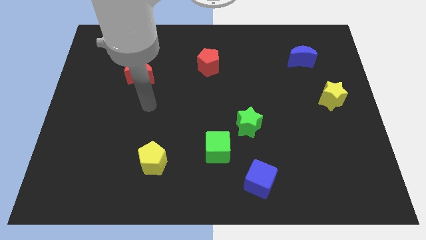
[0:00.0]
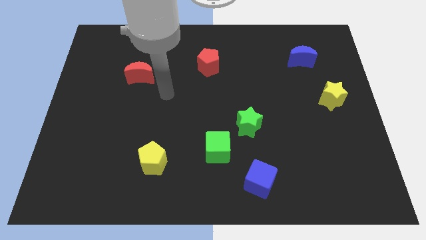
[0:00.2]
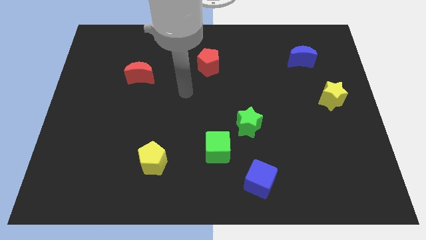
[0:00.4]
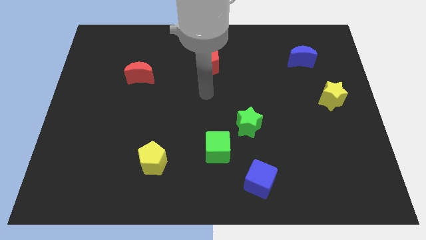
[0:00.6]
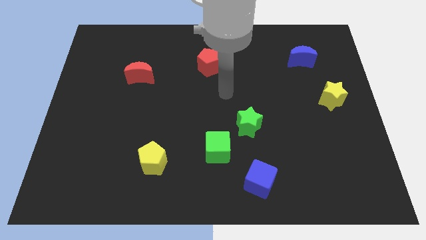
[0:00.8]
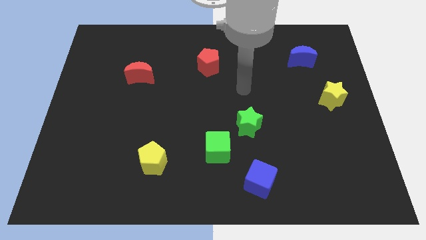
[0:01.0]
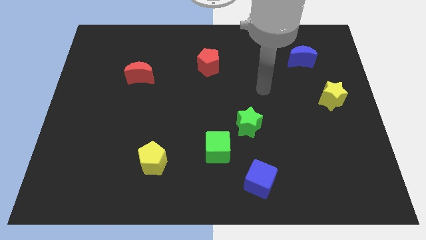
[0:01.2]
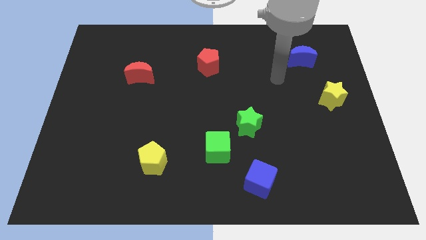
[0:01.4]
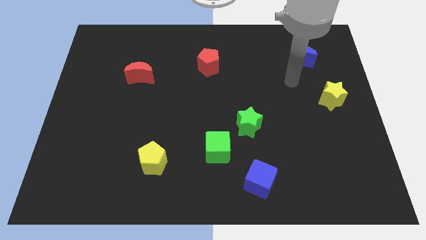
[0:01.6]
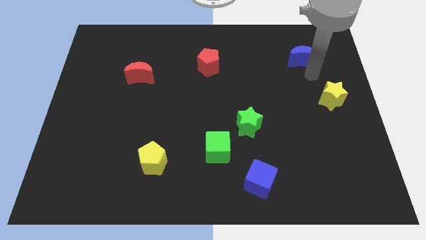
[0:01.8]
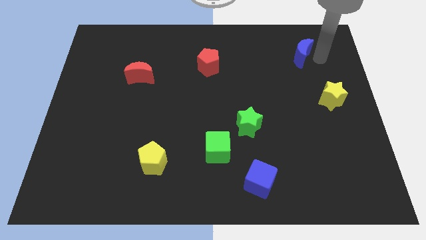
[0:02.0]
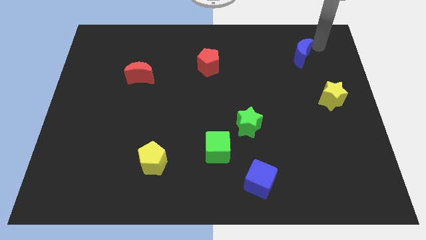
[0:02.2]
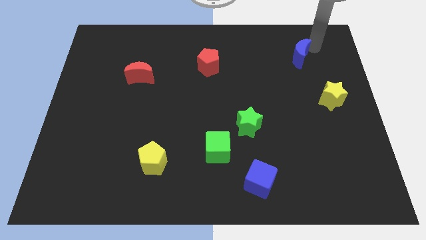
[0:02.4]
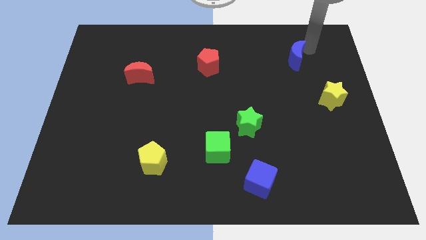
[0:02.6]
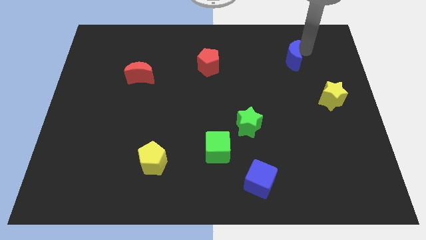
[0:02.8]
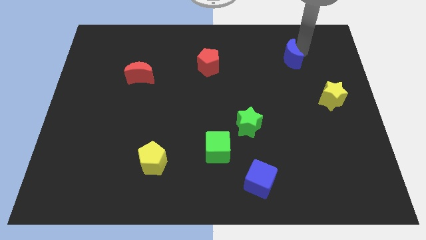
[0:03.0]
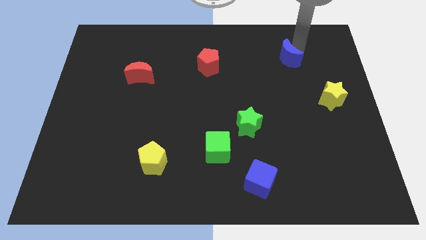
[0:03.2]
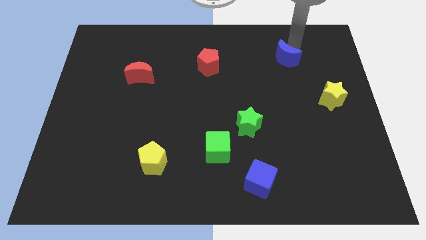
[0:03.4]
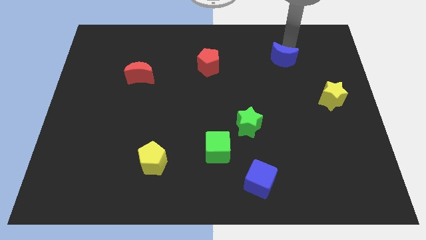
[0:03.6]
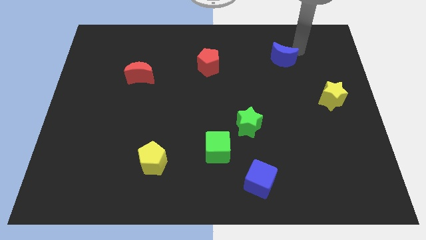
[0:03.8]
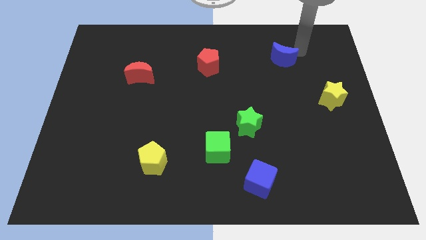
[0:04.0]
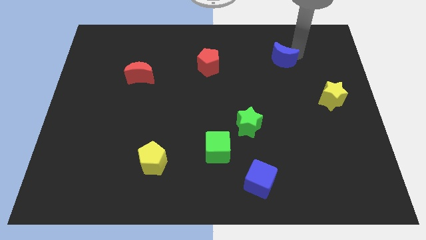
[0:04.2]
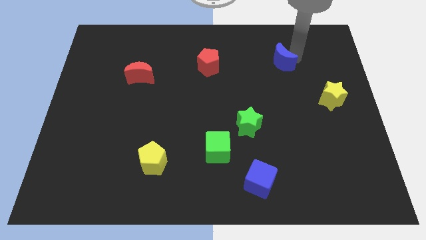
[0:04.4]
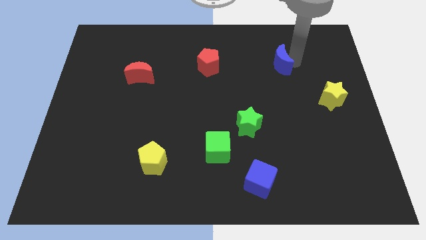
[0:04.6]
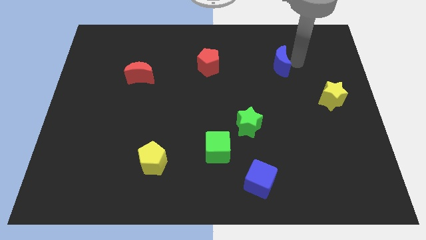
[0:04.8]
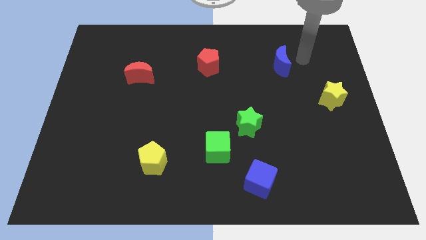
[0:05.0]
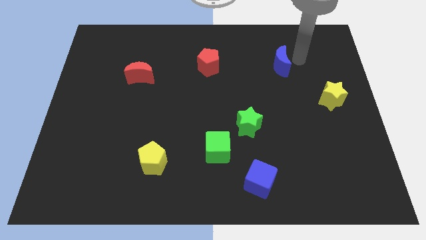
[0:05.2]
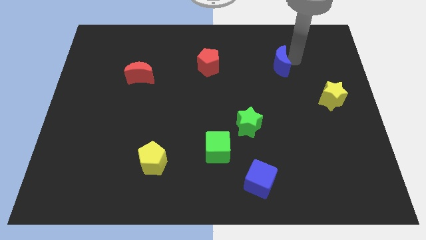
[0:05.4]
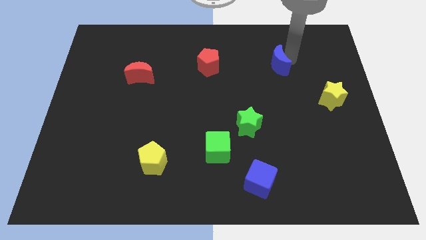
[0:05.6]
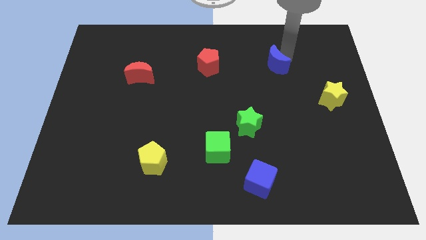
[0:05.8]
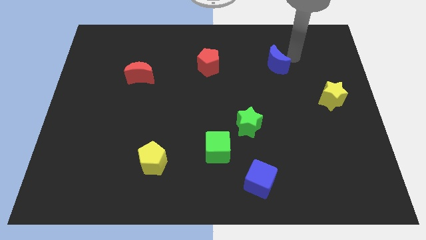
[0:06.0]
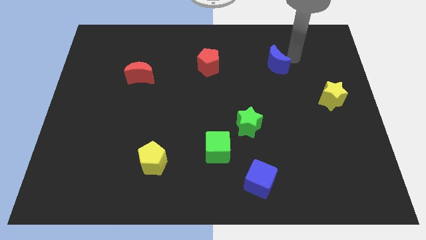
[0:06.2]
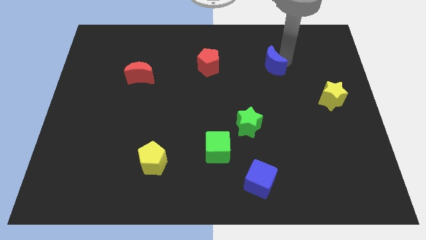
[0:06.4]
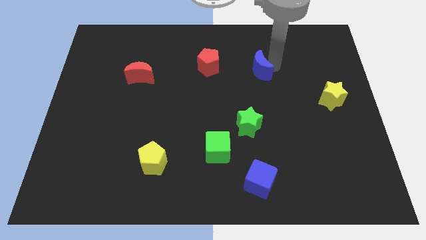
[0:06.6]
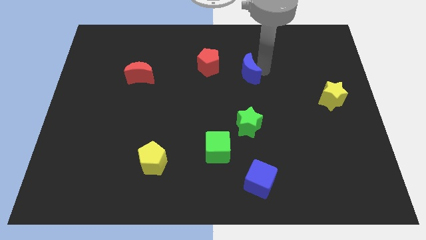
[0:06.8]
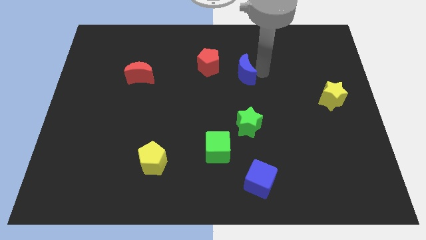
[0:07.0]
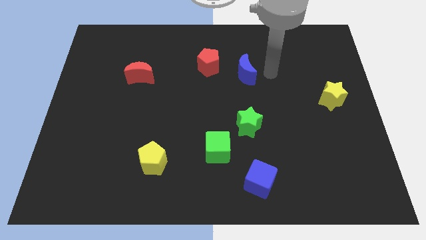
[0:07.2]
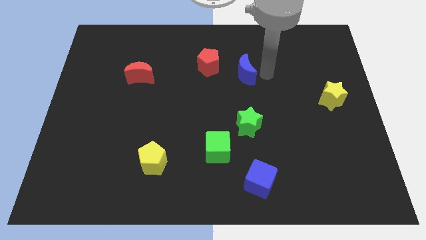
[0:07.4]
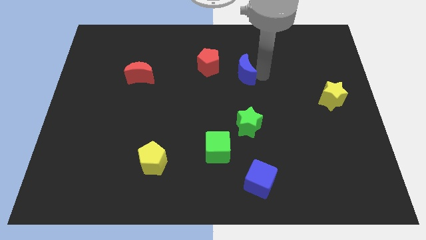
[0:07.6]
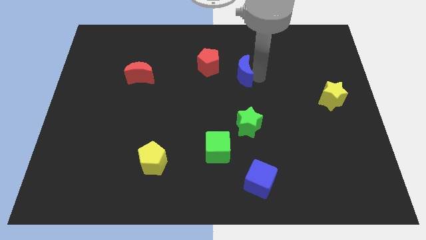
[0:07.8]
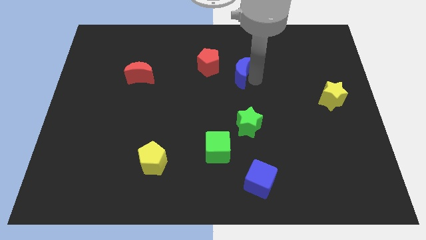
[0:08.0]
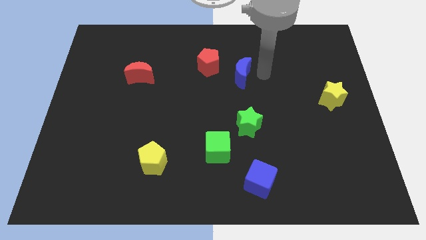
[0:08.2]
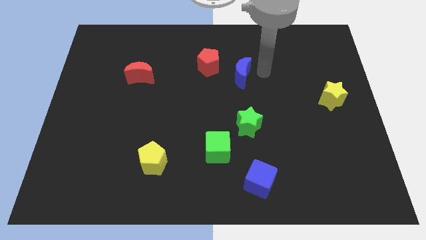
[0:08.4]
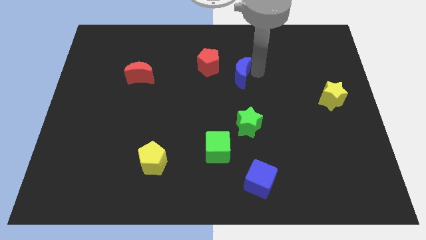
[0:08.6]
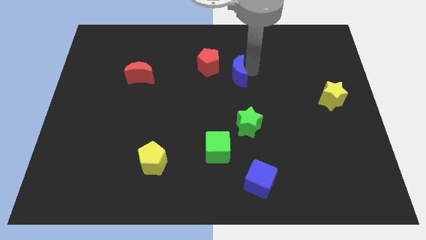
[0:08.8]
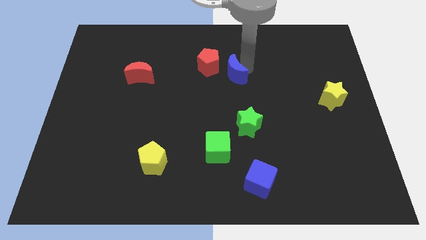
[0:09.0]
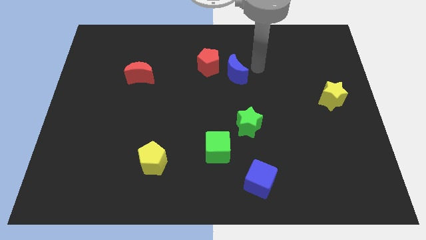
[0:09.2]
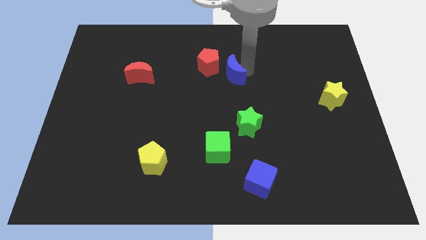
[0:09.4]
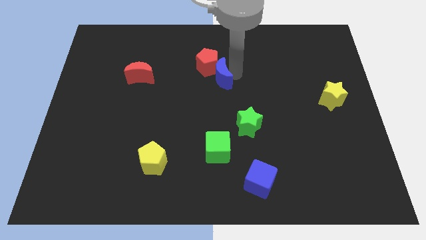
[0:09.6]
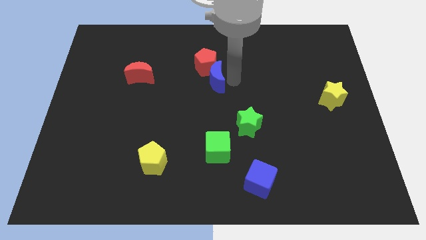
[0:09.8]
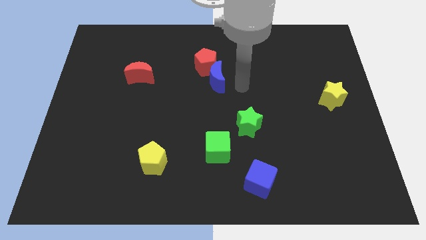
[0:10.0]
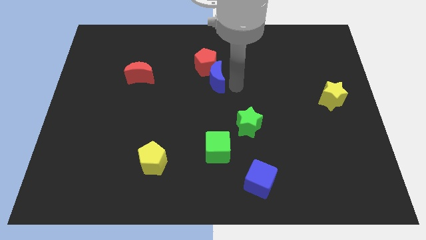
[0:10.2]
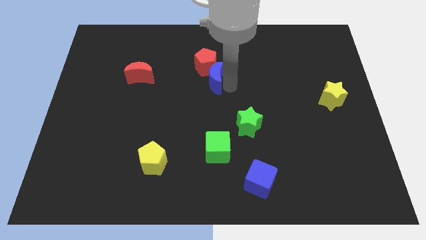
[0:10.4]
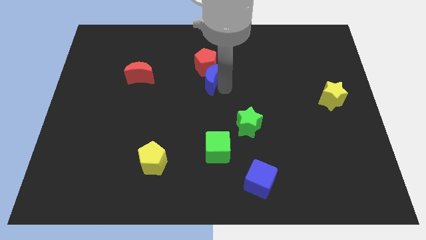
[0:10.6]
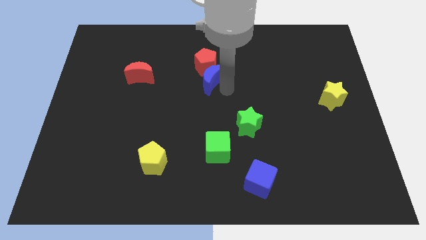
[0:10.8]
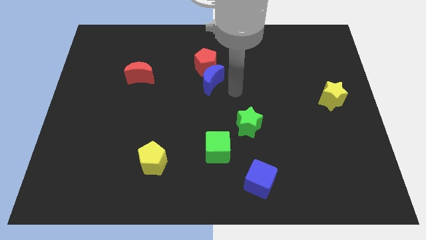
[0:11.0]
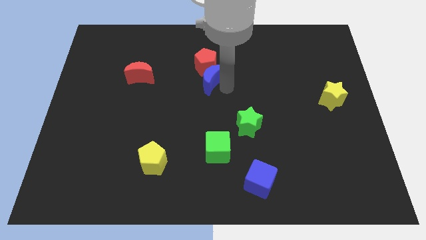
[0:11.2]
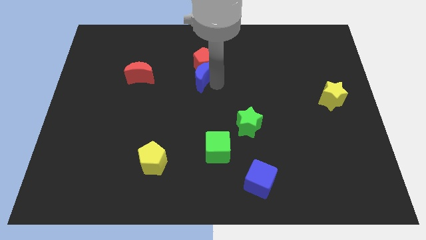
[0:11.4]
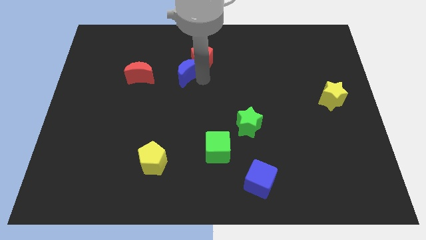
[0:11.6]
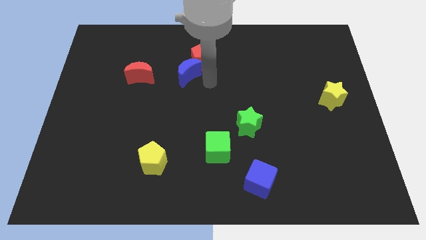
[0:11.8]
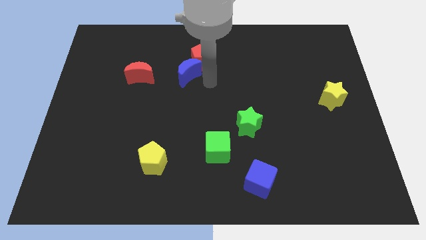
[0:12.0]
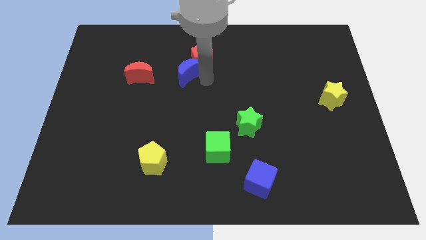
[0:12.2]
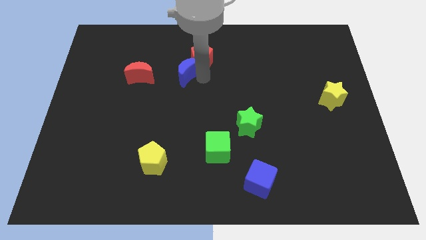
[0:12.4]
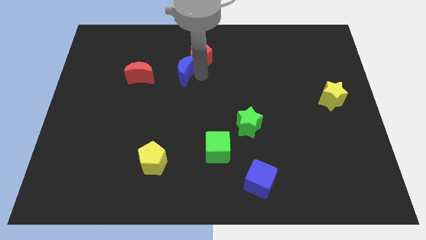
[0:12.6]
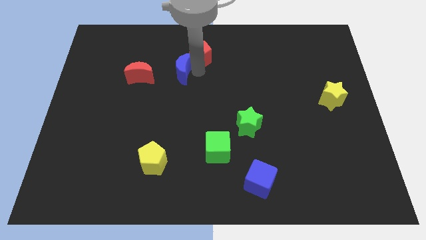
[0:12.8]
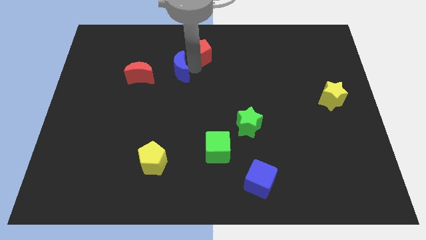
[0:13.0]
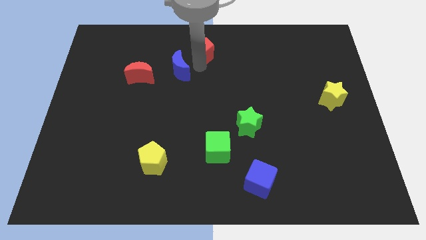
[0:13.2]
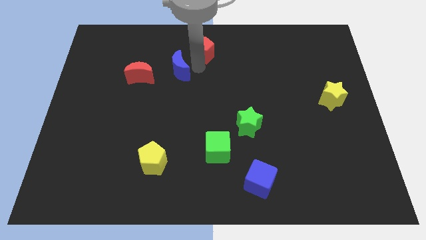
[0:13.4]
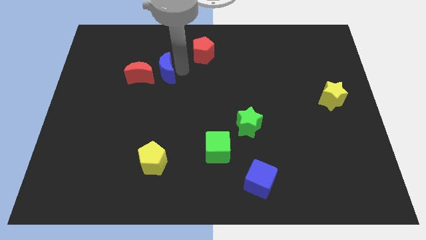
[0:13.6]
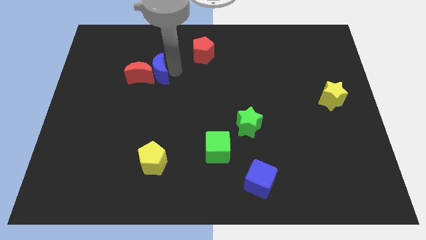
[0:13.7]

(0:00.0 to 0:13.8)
move the blue moon next to the red moon
